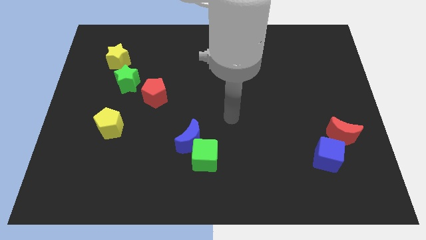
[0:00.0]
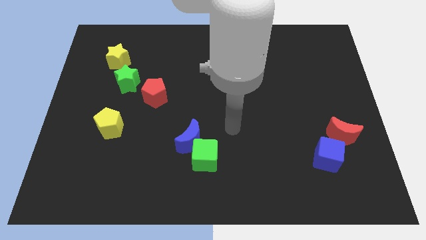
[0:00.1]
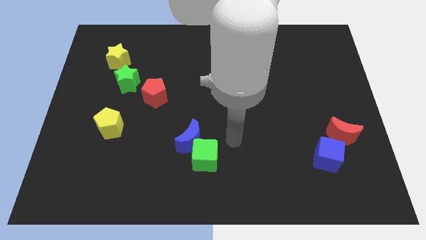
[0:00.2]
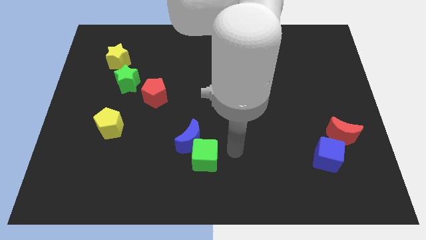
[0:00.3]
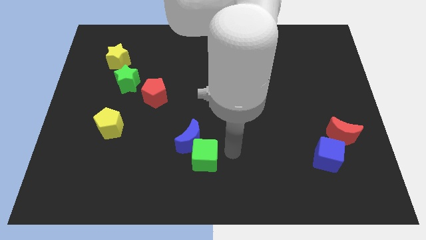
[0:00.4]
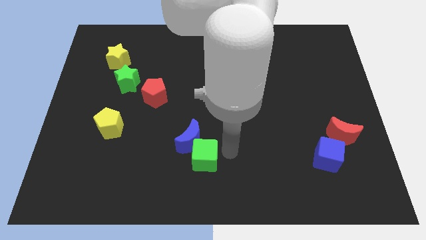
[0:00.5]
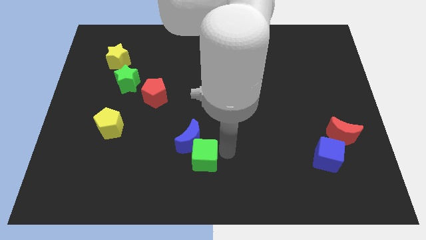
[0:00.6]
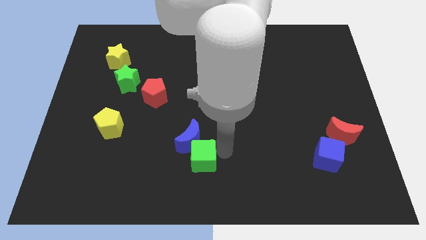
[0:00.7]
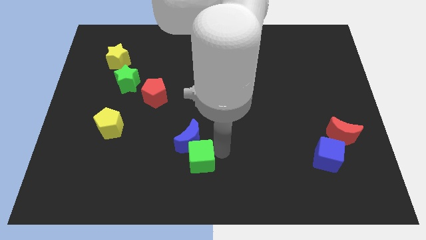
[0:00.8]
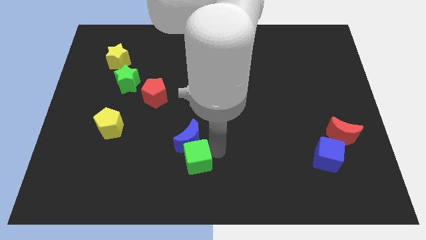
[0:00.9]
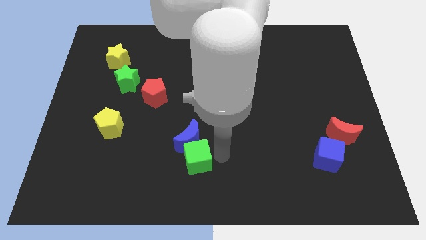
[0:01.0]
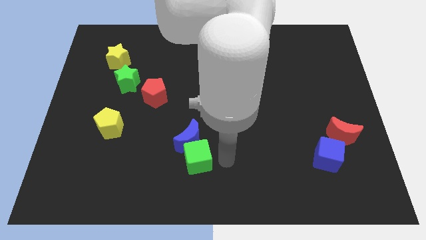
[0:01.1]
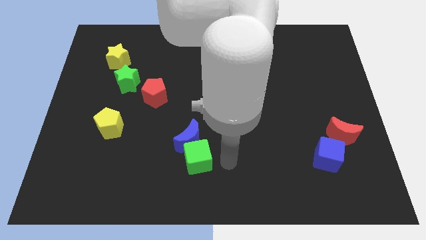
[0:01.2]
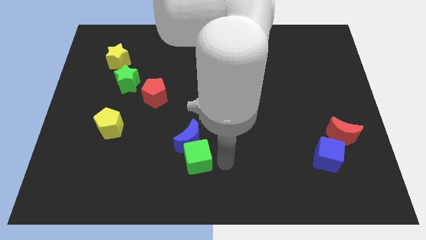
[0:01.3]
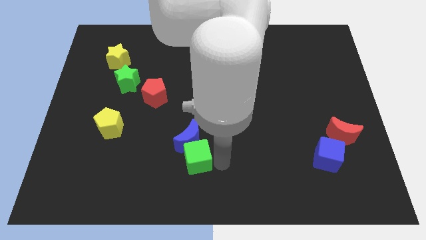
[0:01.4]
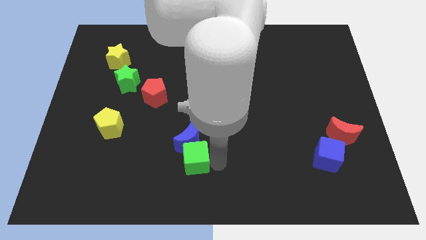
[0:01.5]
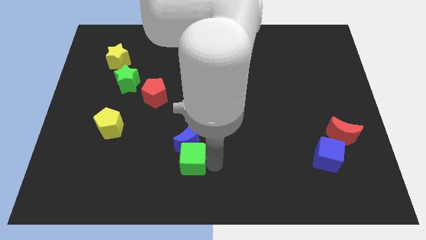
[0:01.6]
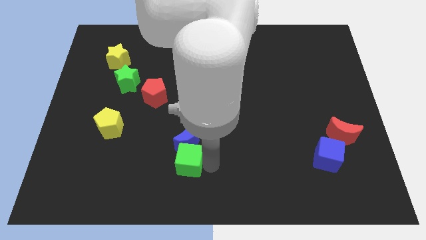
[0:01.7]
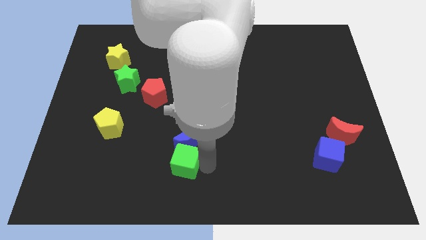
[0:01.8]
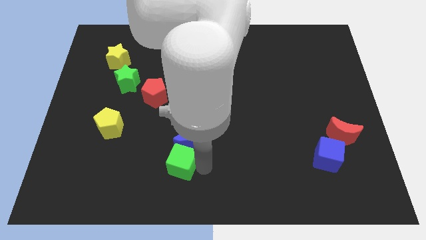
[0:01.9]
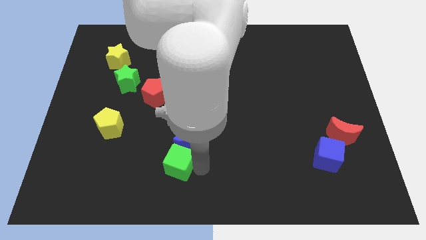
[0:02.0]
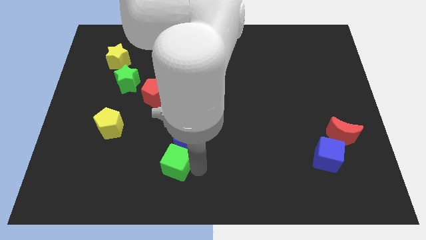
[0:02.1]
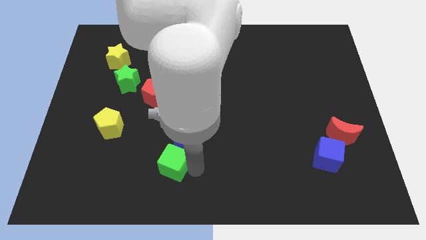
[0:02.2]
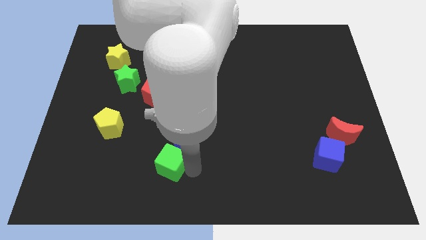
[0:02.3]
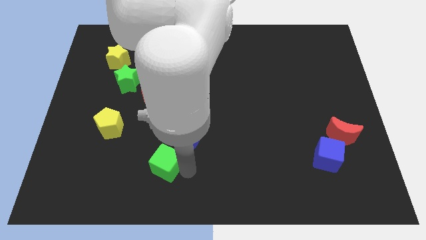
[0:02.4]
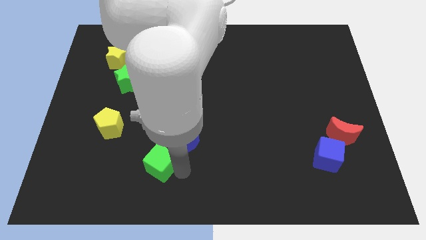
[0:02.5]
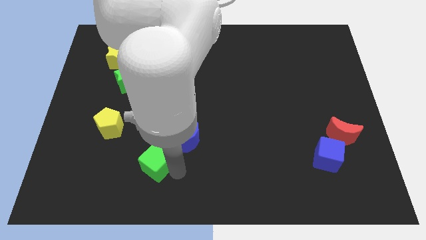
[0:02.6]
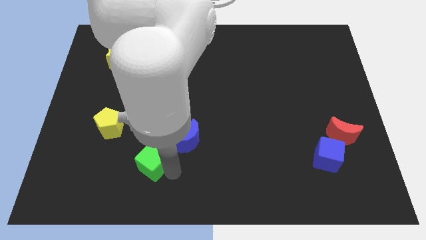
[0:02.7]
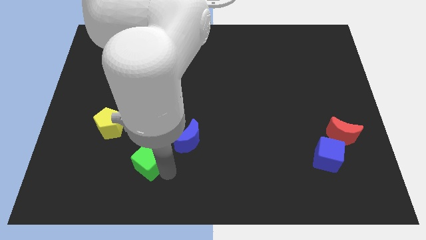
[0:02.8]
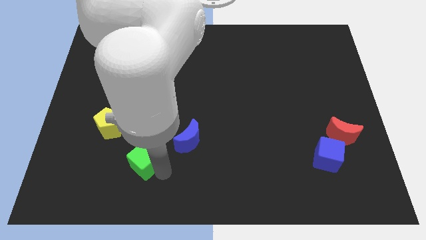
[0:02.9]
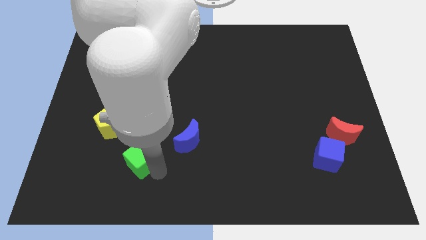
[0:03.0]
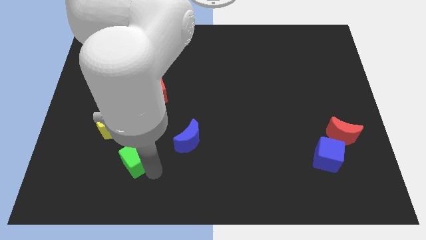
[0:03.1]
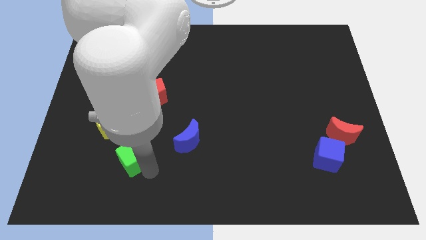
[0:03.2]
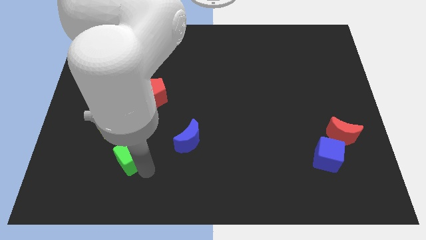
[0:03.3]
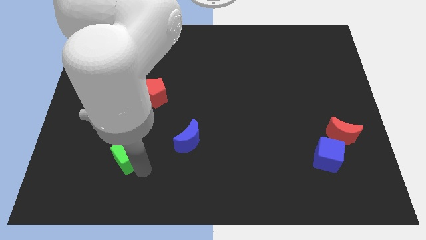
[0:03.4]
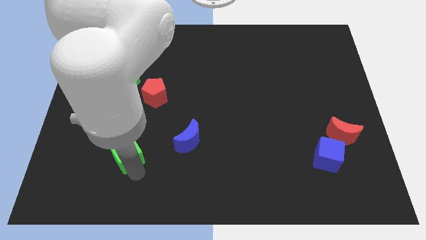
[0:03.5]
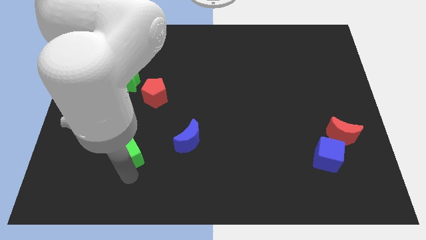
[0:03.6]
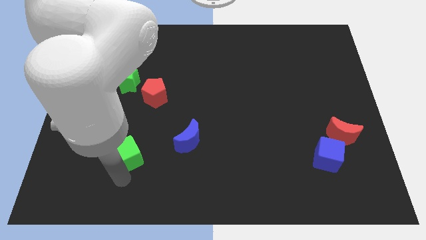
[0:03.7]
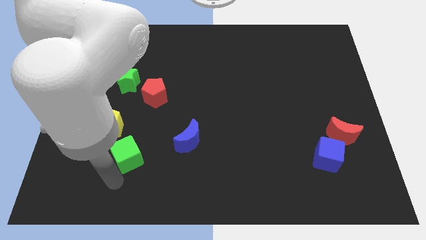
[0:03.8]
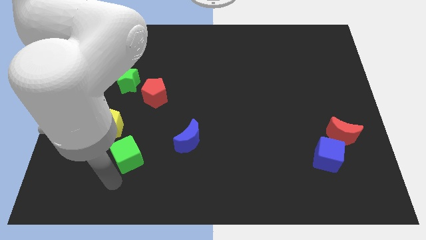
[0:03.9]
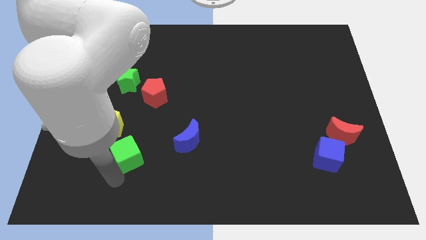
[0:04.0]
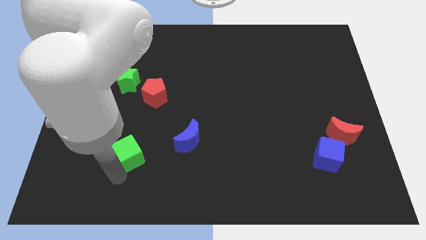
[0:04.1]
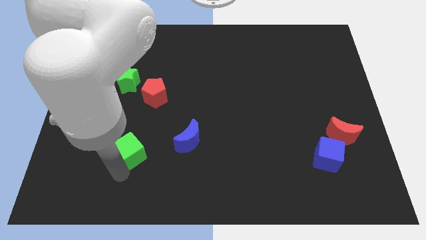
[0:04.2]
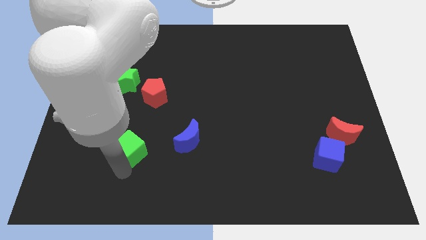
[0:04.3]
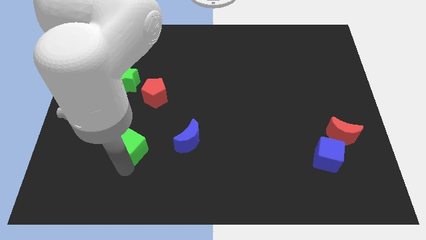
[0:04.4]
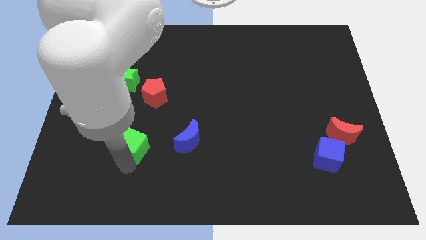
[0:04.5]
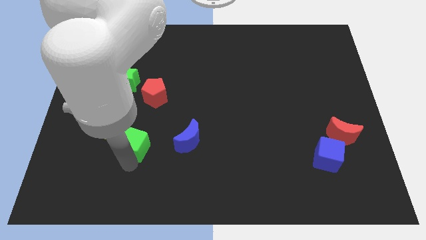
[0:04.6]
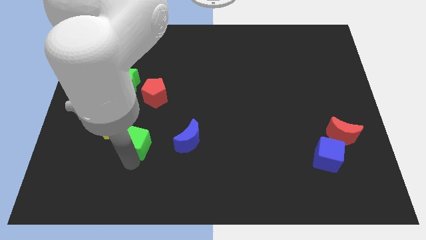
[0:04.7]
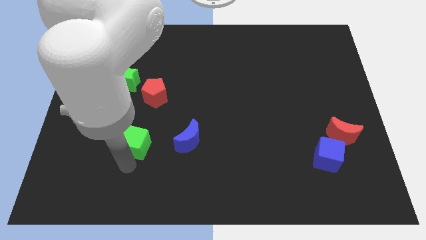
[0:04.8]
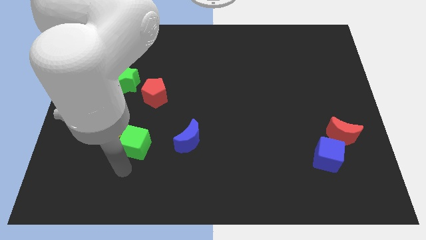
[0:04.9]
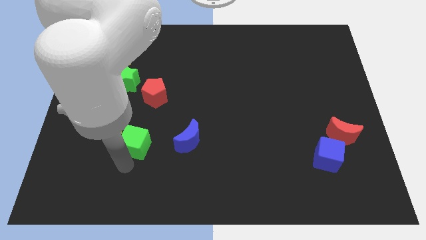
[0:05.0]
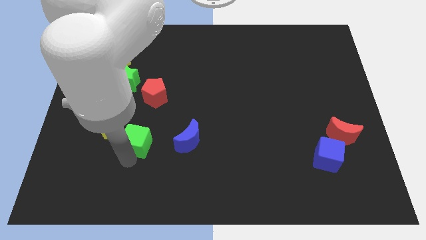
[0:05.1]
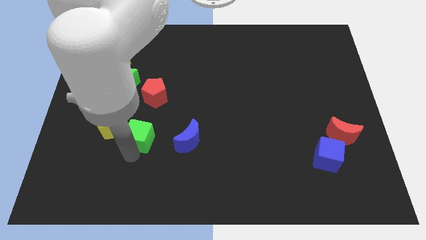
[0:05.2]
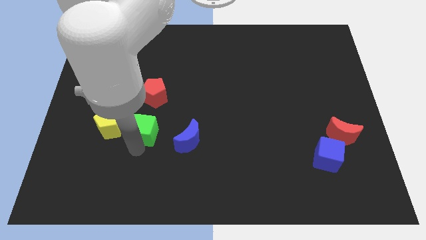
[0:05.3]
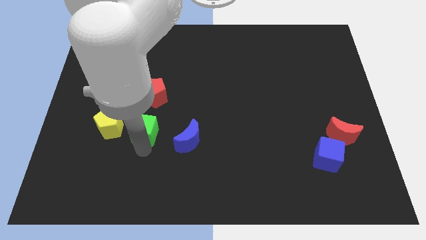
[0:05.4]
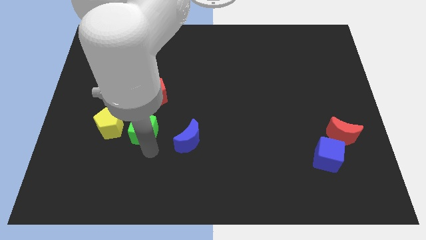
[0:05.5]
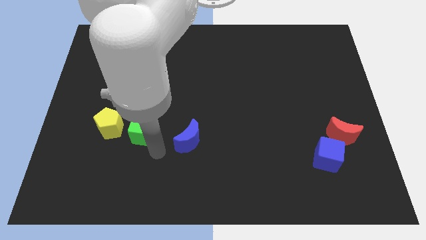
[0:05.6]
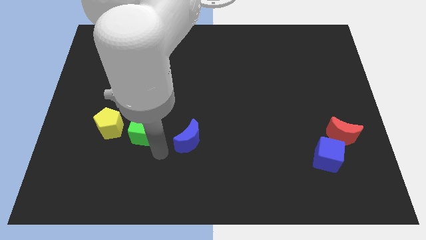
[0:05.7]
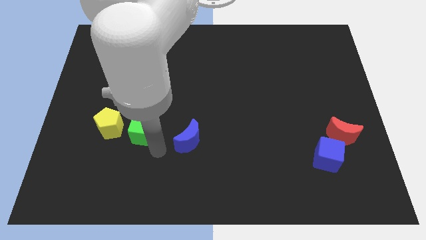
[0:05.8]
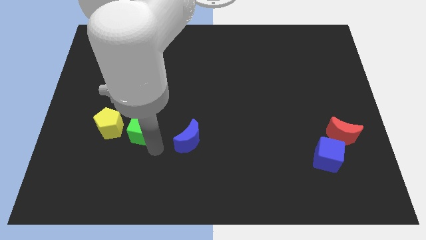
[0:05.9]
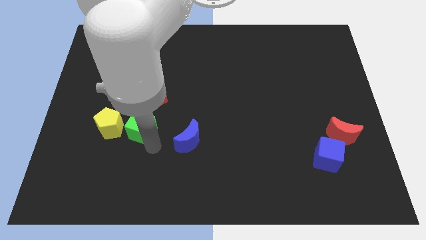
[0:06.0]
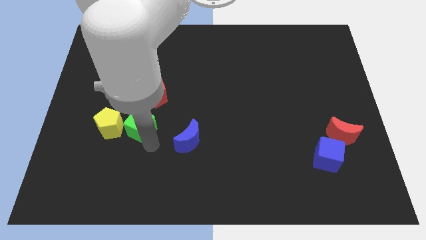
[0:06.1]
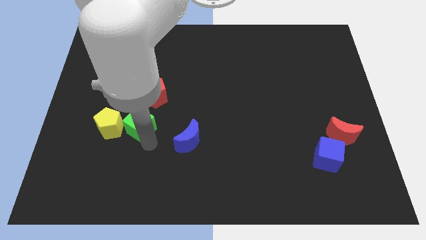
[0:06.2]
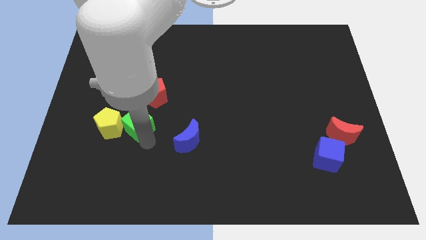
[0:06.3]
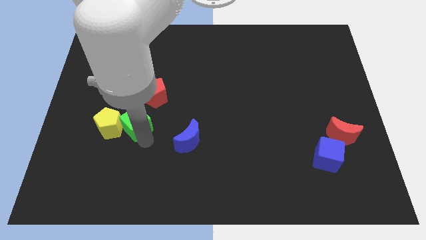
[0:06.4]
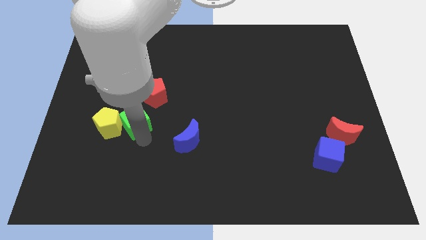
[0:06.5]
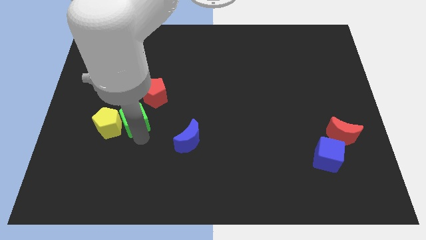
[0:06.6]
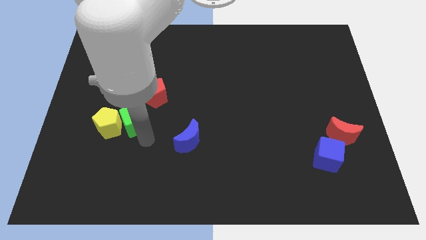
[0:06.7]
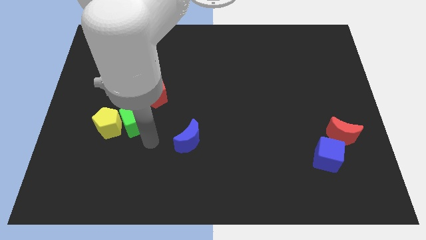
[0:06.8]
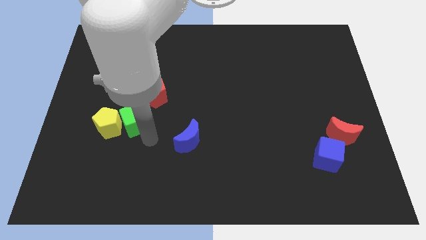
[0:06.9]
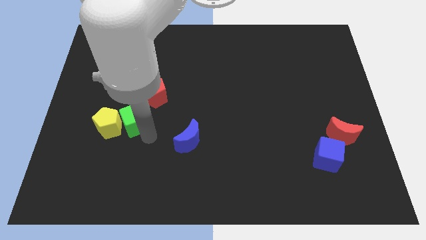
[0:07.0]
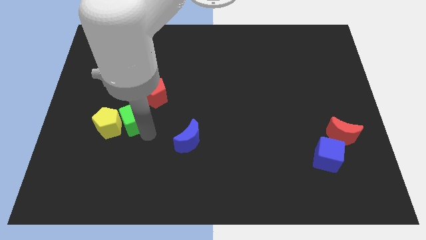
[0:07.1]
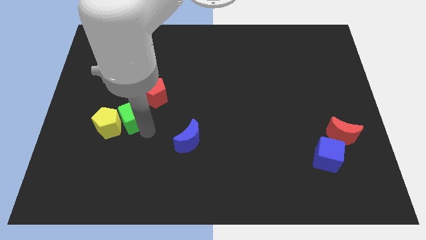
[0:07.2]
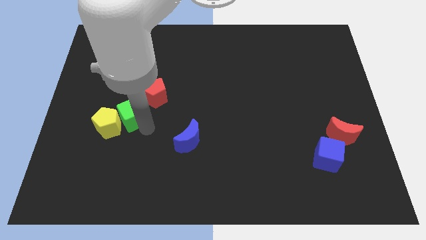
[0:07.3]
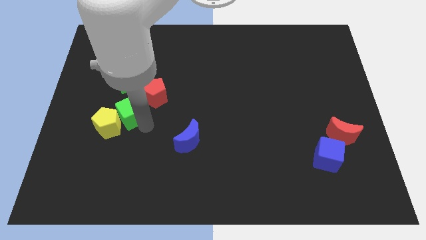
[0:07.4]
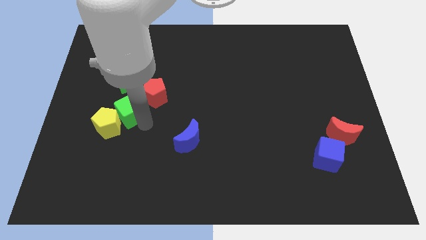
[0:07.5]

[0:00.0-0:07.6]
push the green cube up and to the left diagonally

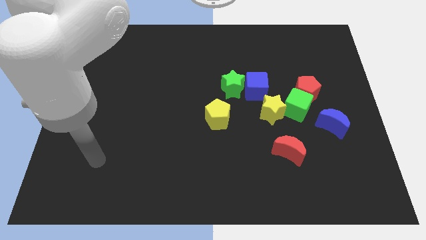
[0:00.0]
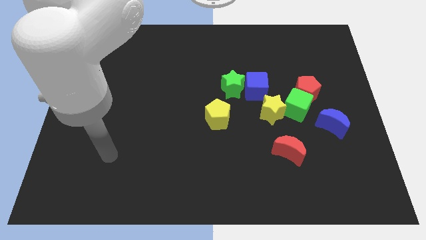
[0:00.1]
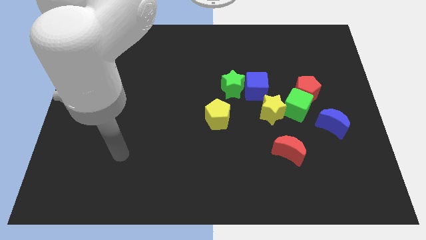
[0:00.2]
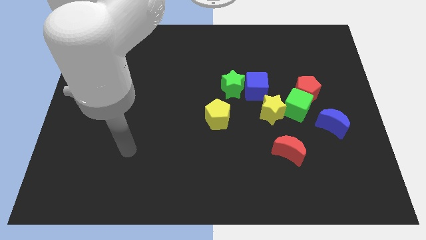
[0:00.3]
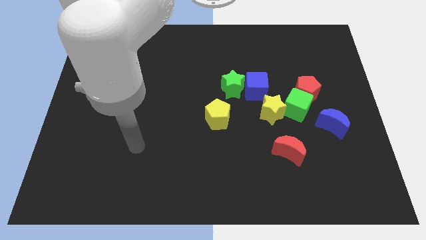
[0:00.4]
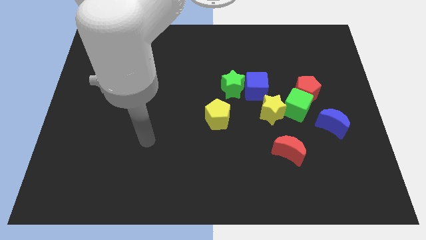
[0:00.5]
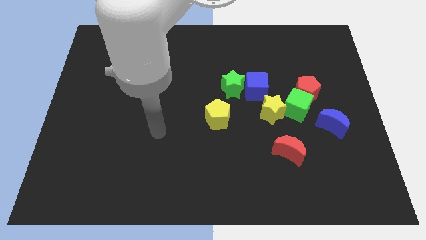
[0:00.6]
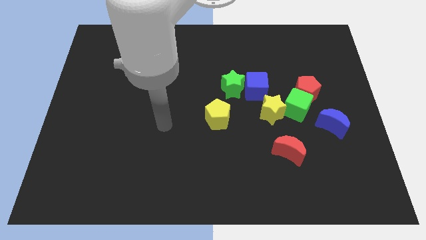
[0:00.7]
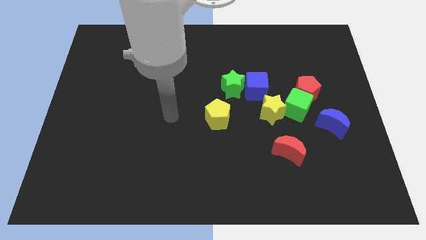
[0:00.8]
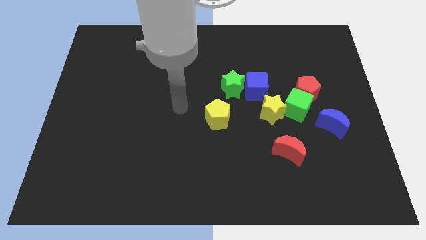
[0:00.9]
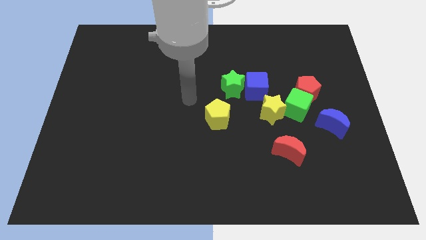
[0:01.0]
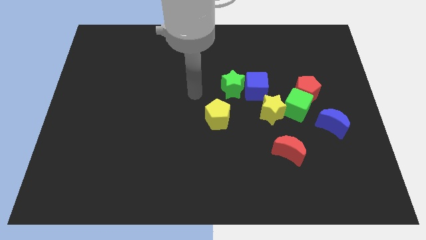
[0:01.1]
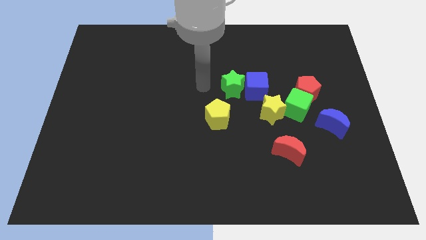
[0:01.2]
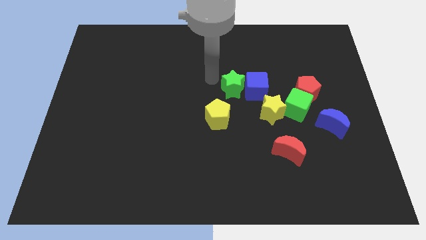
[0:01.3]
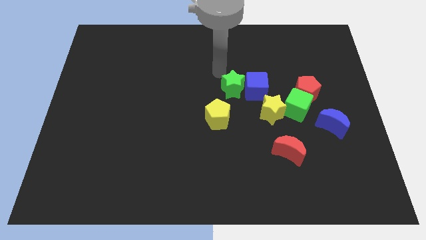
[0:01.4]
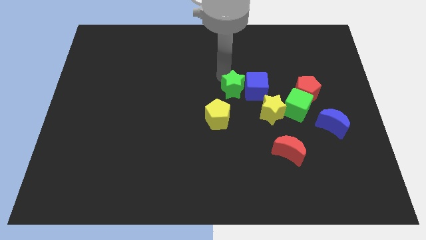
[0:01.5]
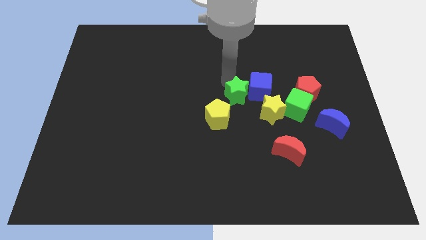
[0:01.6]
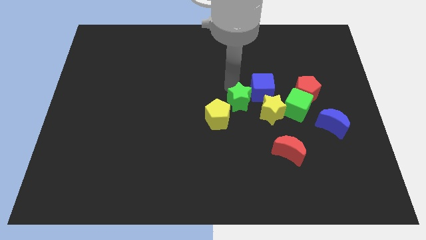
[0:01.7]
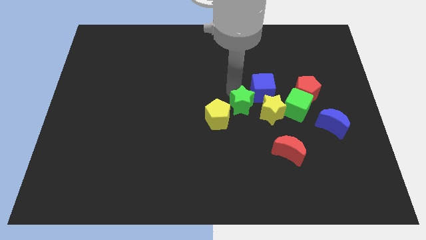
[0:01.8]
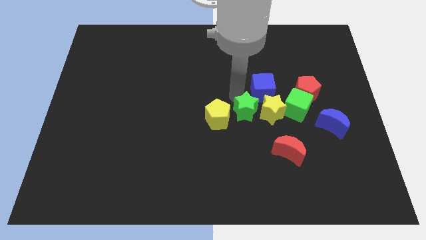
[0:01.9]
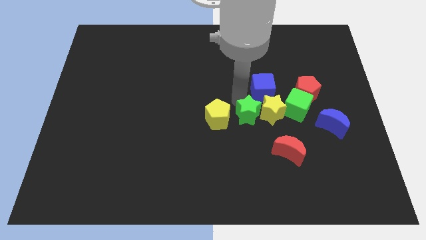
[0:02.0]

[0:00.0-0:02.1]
move the green star a little bit down and right diagonally
